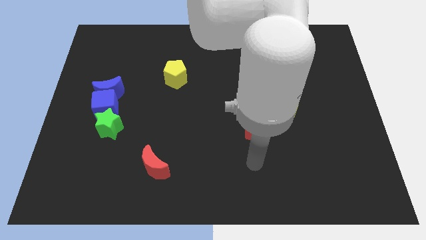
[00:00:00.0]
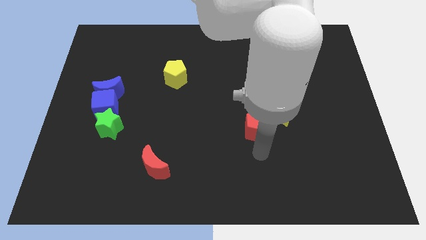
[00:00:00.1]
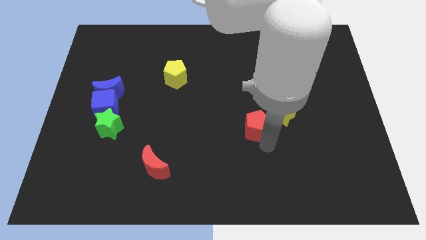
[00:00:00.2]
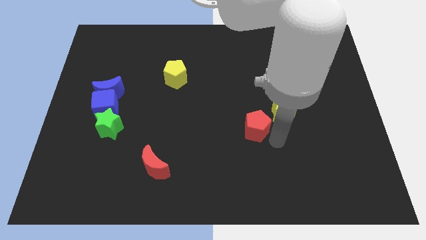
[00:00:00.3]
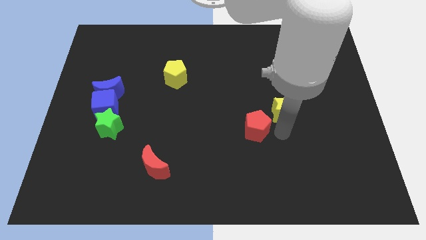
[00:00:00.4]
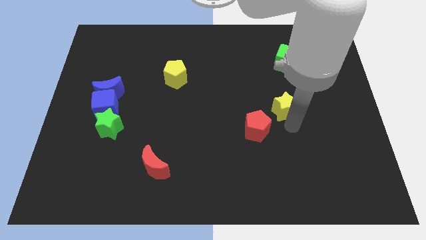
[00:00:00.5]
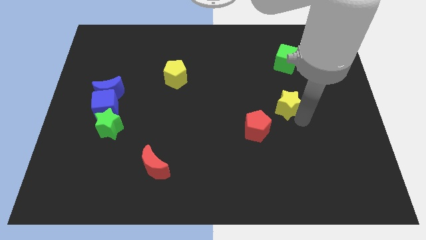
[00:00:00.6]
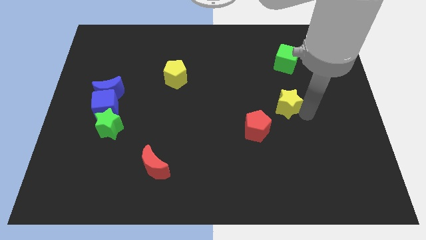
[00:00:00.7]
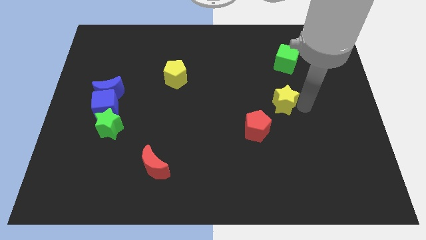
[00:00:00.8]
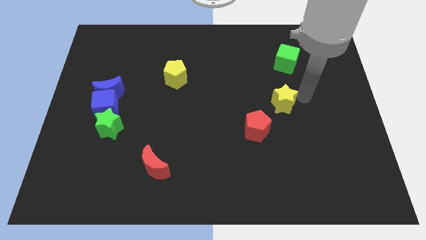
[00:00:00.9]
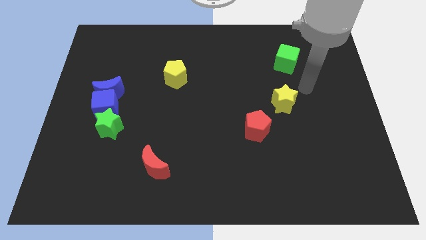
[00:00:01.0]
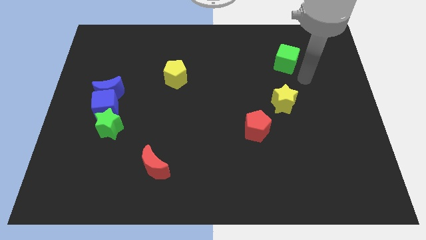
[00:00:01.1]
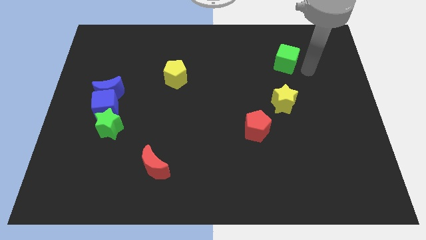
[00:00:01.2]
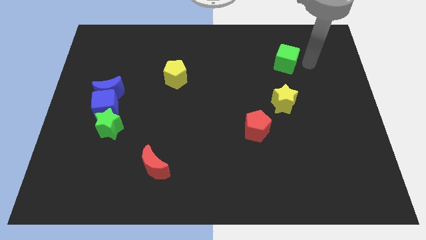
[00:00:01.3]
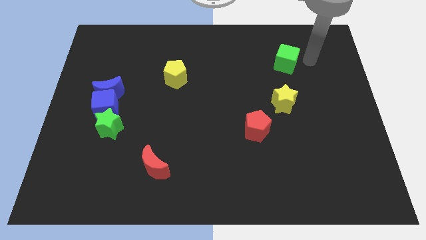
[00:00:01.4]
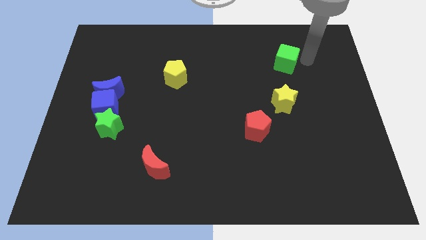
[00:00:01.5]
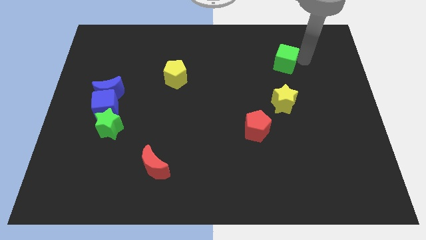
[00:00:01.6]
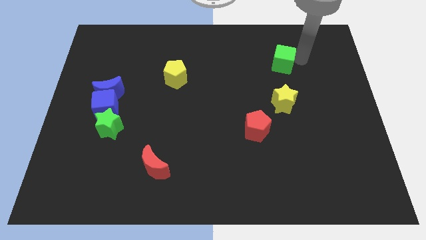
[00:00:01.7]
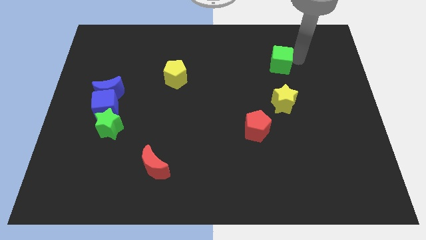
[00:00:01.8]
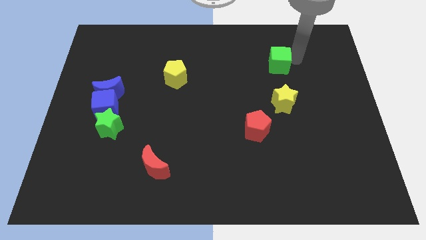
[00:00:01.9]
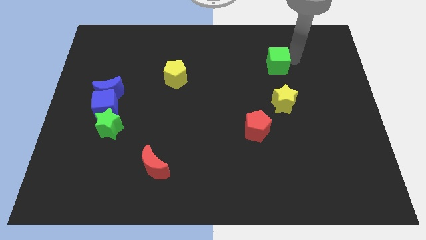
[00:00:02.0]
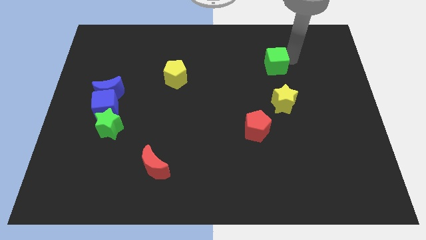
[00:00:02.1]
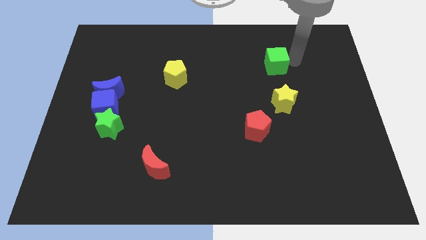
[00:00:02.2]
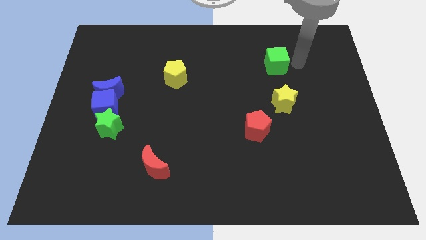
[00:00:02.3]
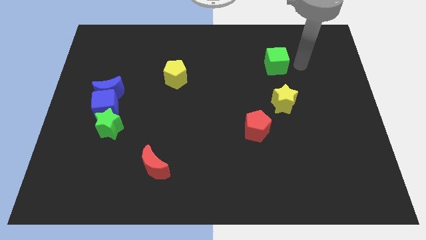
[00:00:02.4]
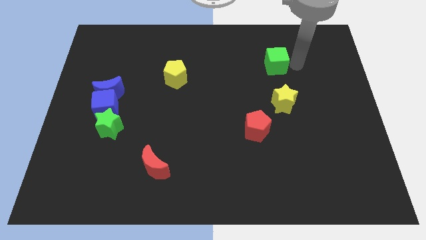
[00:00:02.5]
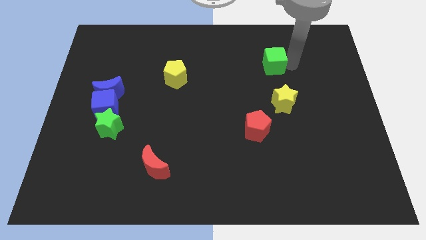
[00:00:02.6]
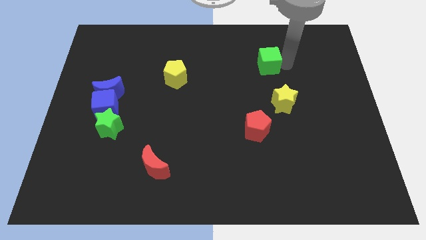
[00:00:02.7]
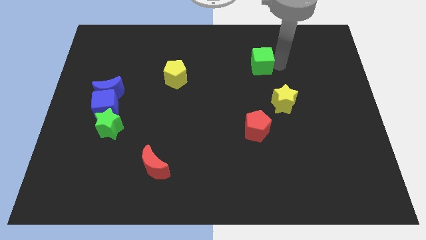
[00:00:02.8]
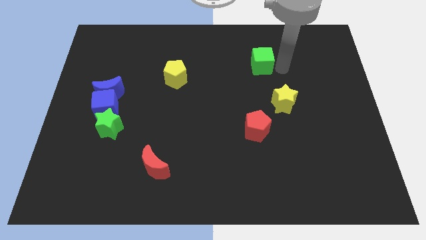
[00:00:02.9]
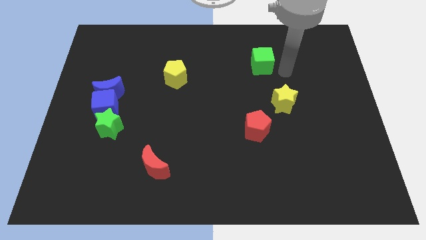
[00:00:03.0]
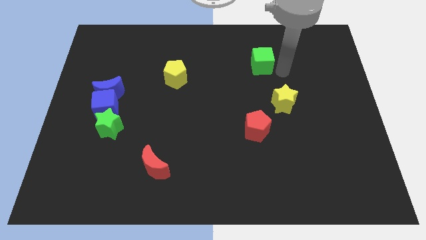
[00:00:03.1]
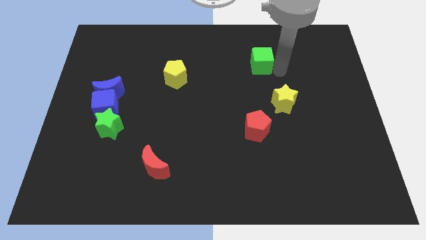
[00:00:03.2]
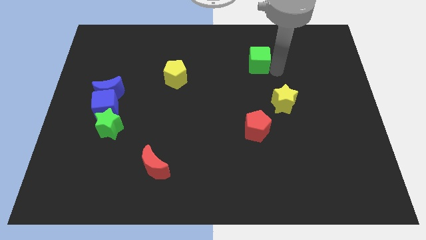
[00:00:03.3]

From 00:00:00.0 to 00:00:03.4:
push the green cube to the left a little

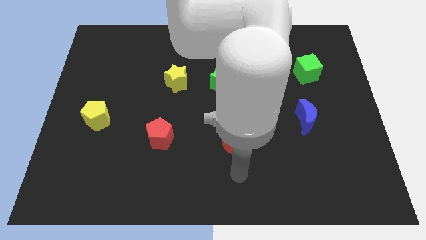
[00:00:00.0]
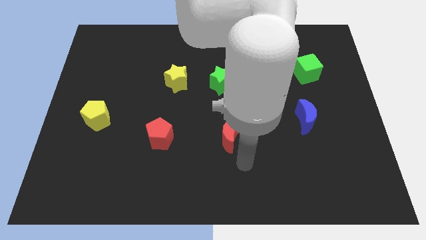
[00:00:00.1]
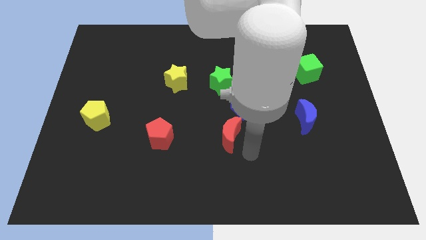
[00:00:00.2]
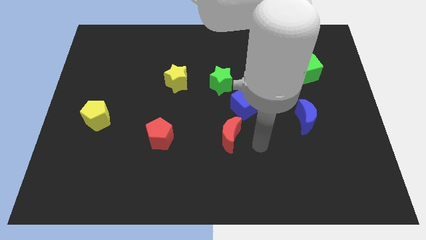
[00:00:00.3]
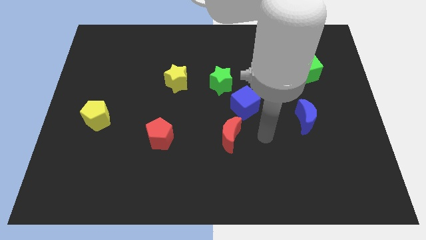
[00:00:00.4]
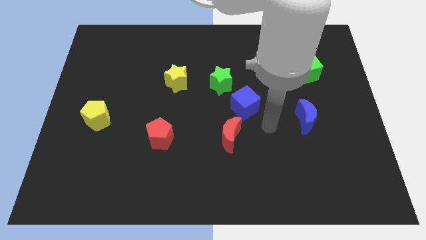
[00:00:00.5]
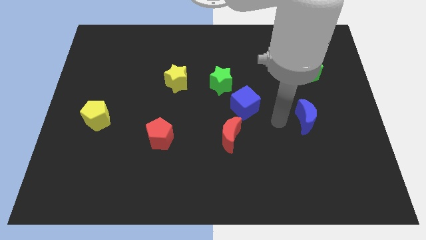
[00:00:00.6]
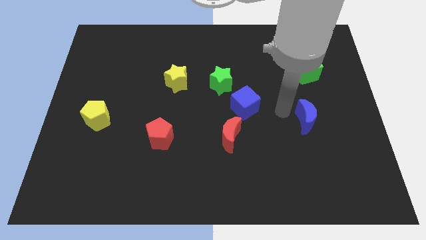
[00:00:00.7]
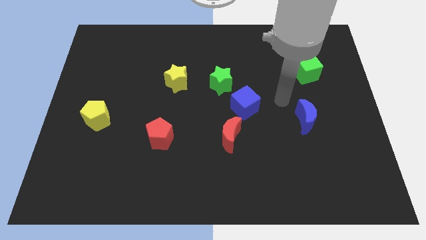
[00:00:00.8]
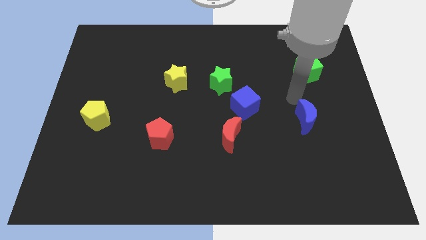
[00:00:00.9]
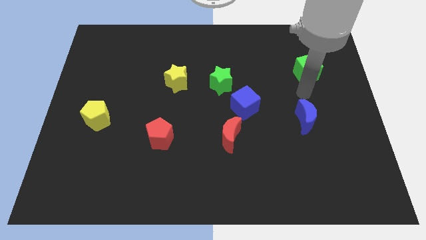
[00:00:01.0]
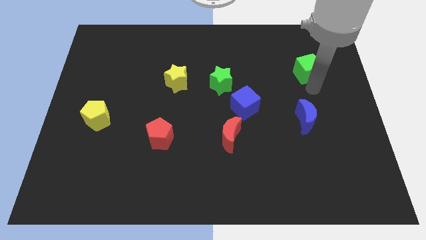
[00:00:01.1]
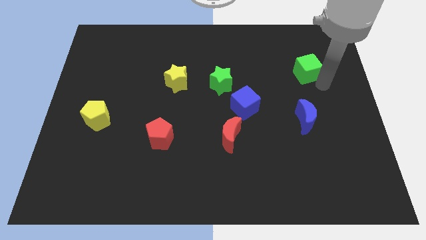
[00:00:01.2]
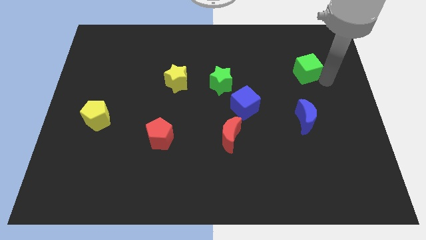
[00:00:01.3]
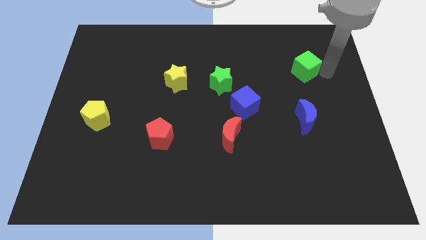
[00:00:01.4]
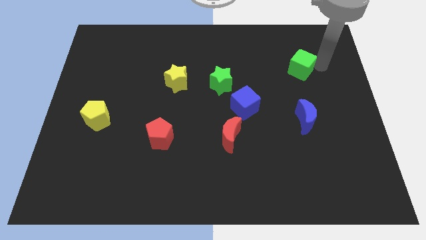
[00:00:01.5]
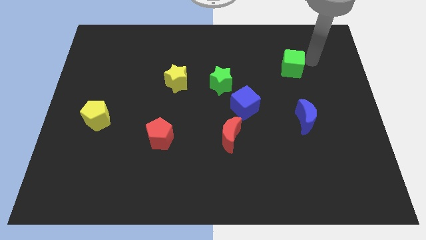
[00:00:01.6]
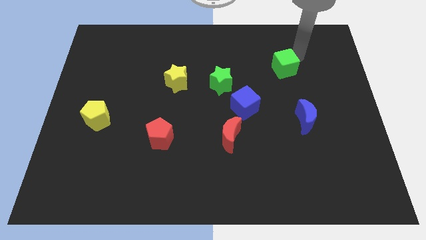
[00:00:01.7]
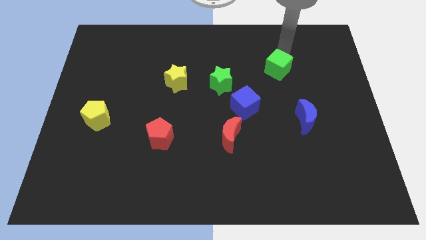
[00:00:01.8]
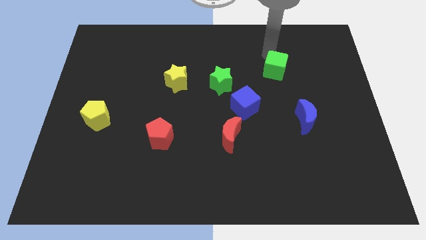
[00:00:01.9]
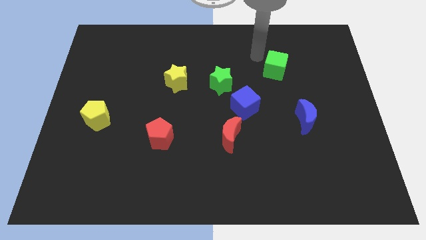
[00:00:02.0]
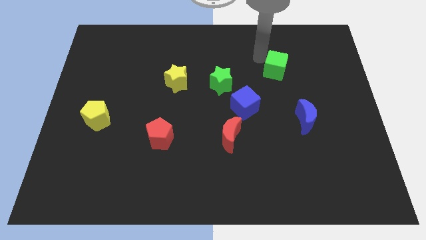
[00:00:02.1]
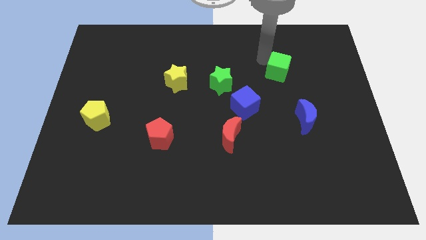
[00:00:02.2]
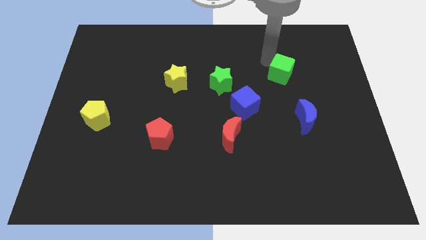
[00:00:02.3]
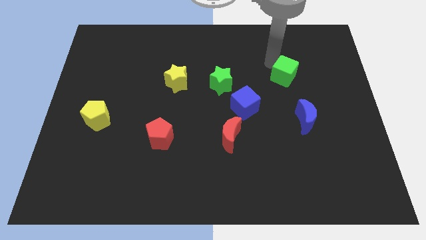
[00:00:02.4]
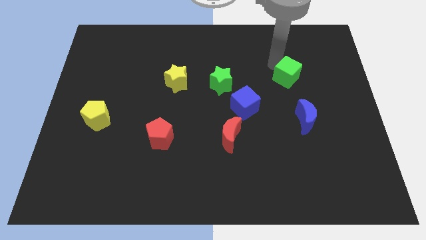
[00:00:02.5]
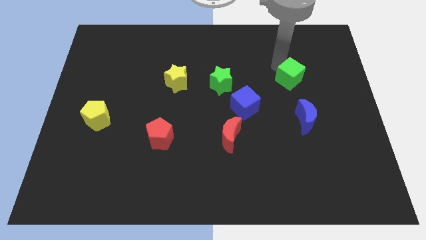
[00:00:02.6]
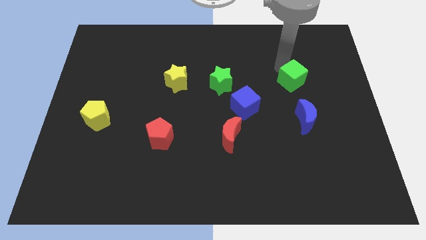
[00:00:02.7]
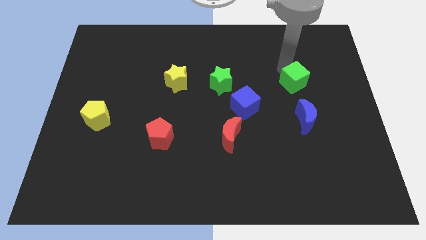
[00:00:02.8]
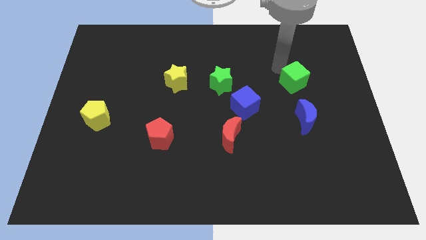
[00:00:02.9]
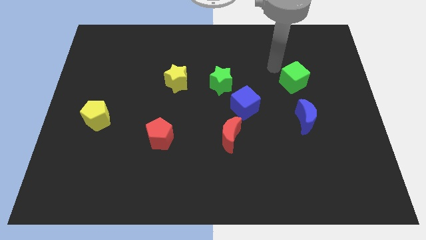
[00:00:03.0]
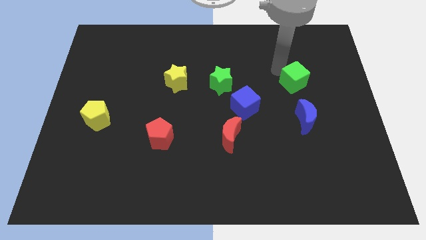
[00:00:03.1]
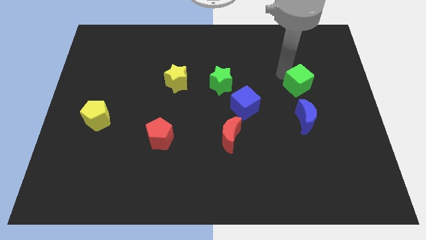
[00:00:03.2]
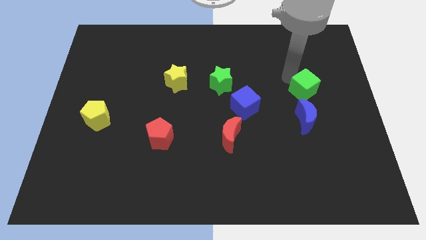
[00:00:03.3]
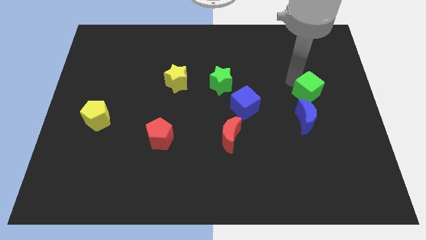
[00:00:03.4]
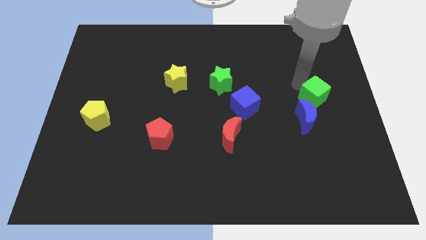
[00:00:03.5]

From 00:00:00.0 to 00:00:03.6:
move the green cube a little bit down

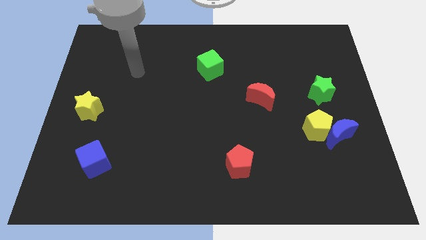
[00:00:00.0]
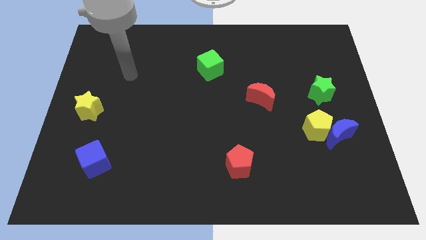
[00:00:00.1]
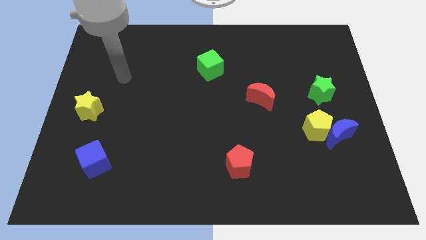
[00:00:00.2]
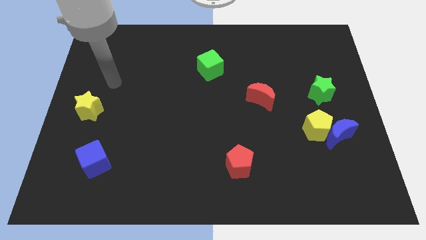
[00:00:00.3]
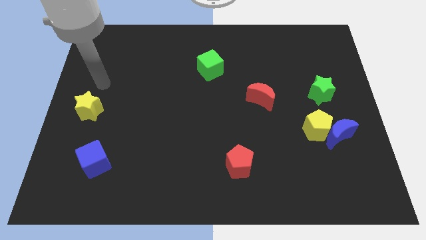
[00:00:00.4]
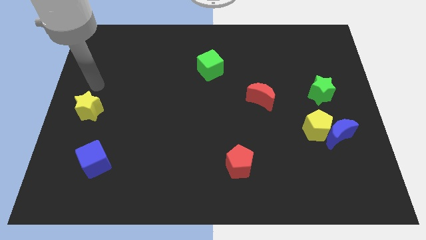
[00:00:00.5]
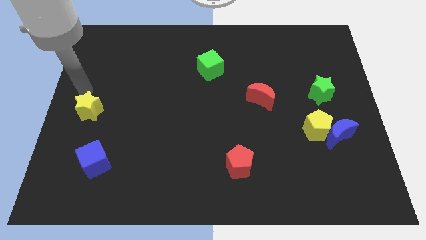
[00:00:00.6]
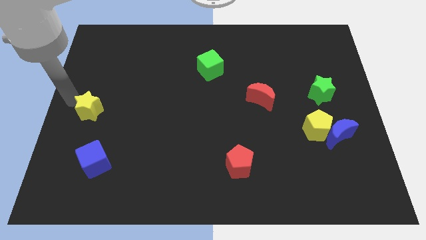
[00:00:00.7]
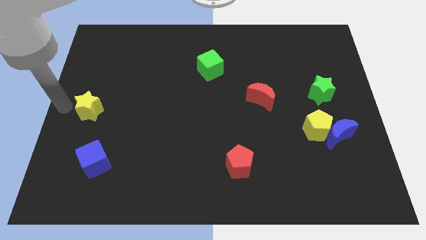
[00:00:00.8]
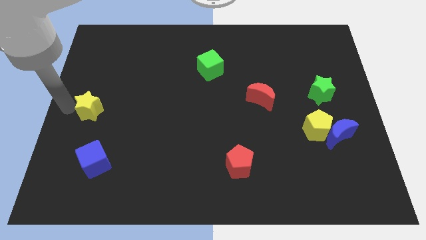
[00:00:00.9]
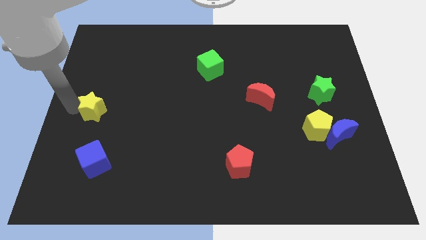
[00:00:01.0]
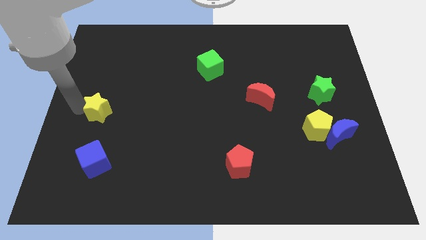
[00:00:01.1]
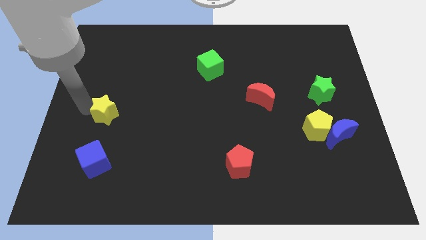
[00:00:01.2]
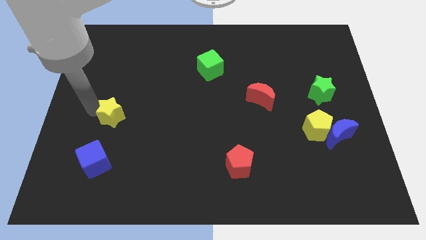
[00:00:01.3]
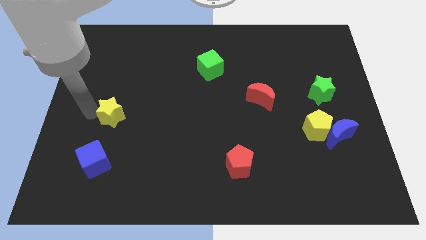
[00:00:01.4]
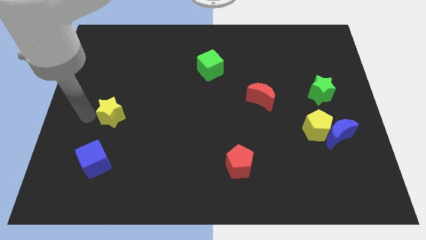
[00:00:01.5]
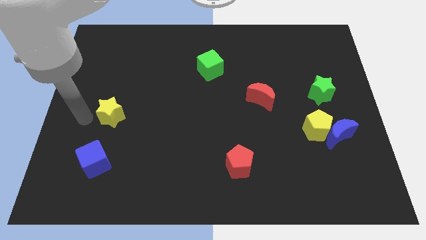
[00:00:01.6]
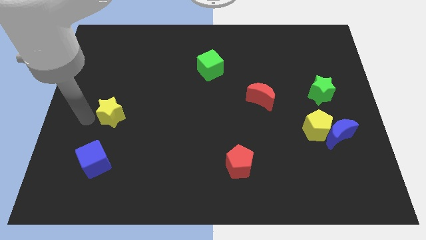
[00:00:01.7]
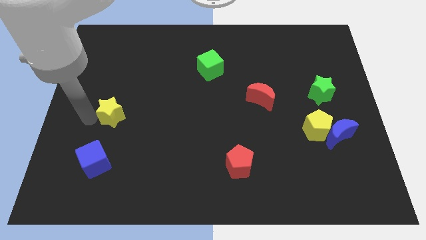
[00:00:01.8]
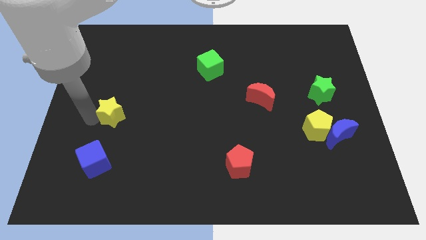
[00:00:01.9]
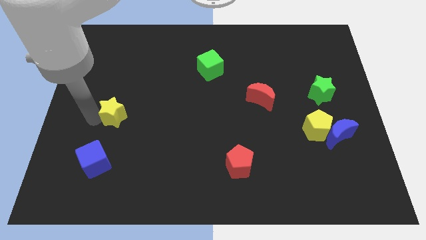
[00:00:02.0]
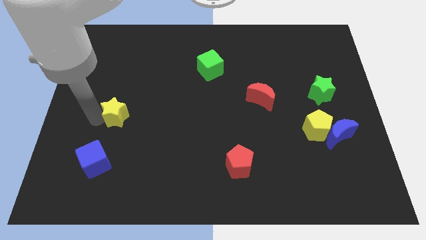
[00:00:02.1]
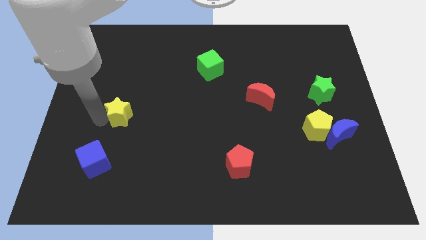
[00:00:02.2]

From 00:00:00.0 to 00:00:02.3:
slightly slide the yellow star to the right
